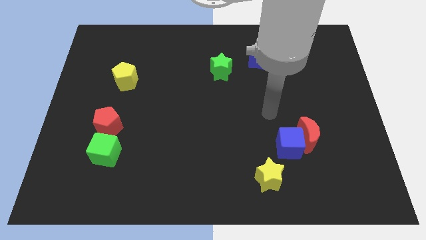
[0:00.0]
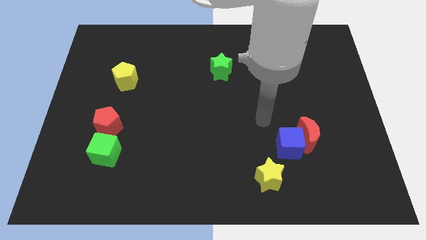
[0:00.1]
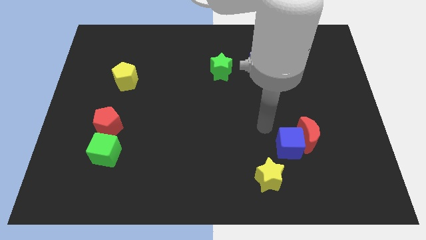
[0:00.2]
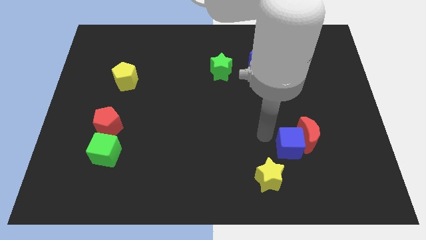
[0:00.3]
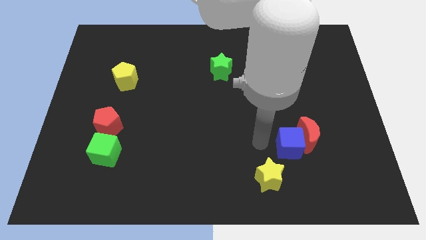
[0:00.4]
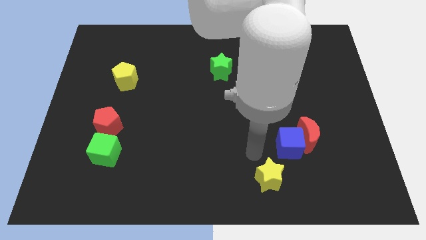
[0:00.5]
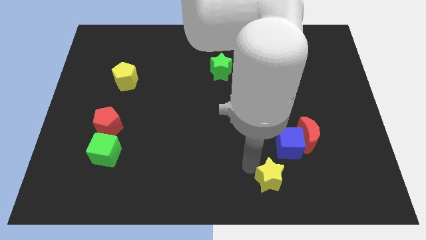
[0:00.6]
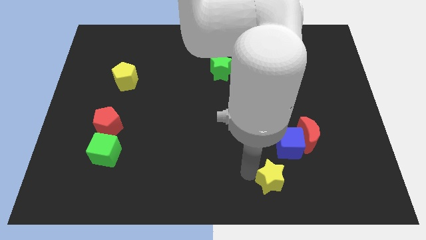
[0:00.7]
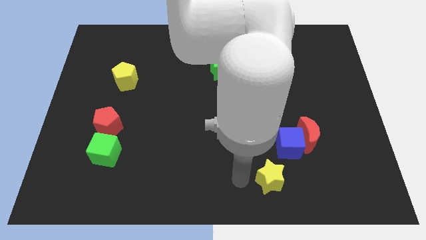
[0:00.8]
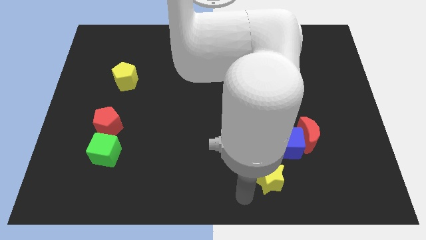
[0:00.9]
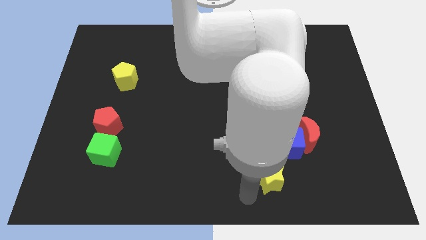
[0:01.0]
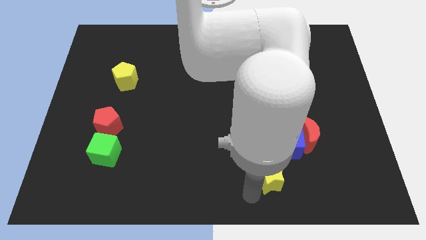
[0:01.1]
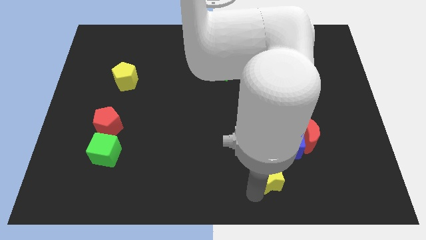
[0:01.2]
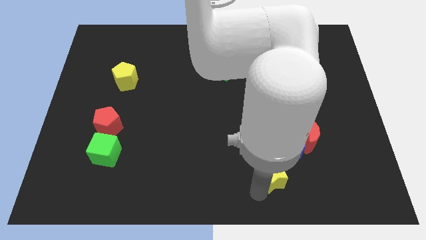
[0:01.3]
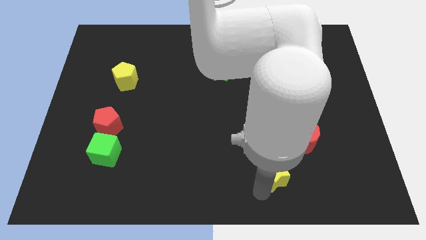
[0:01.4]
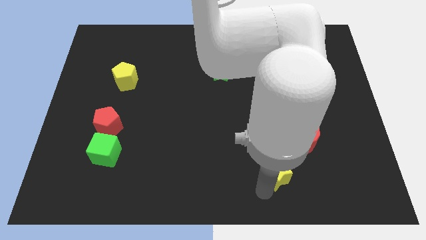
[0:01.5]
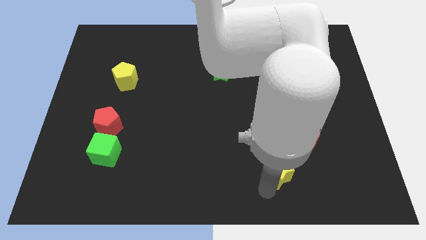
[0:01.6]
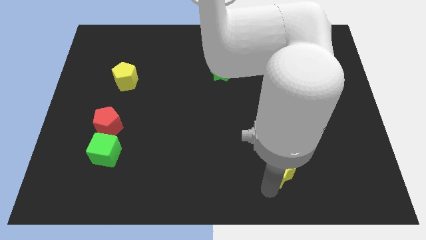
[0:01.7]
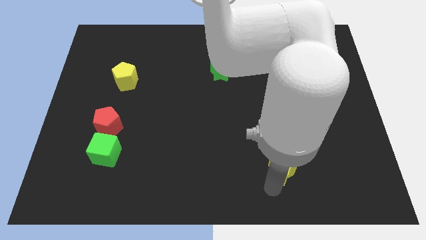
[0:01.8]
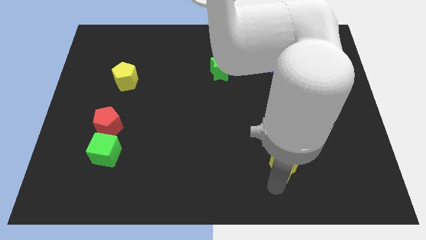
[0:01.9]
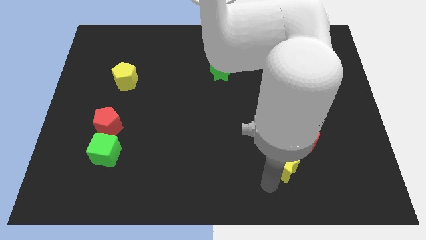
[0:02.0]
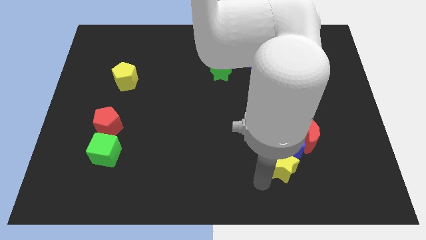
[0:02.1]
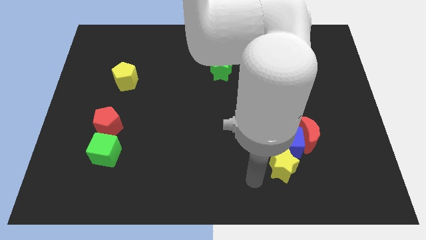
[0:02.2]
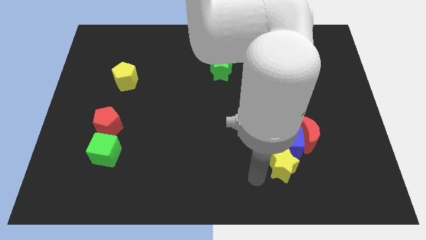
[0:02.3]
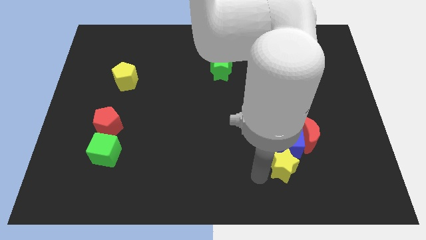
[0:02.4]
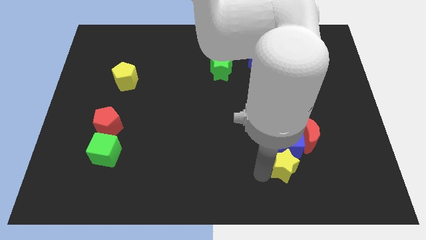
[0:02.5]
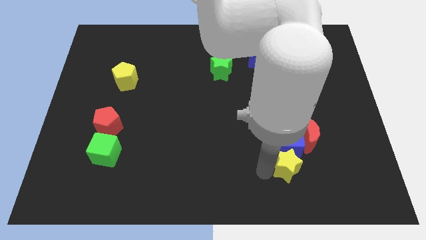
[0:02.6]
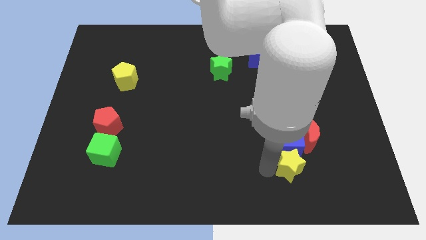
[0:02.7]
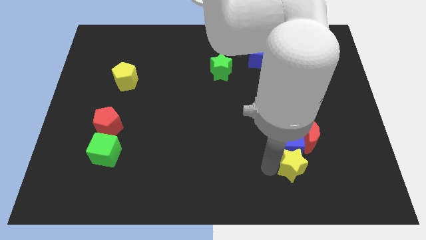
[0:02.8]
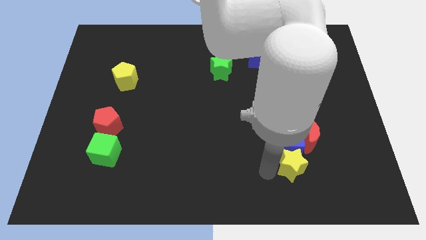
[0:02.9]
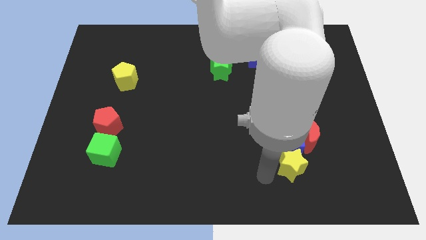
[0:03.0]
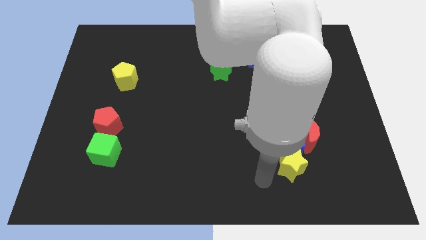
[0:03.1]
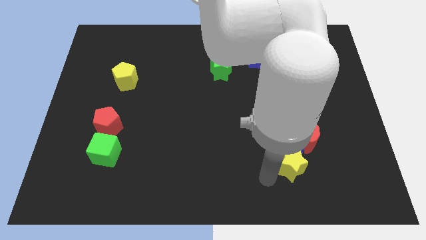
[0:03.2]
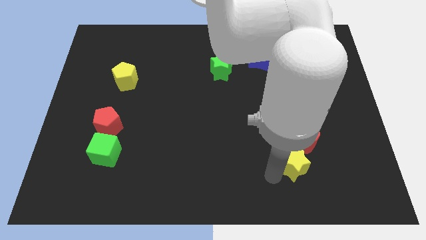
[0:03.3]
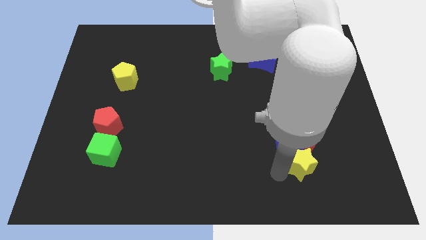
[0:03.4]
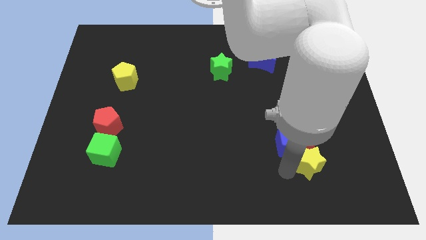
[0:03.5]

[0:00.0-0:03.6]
slightly push the yellow star diagonally upwards and to the right

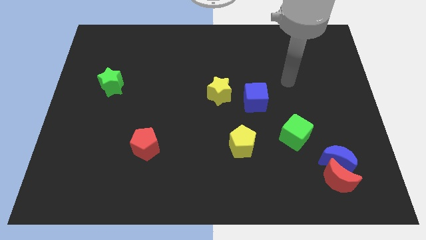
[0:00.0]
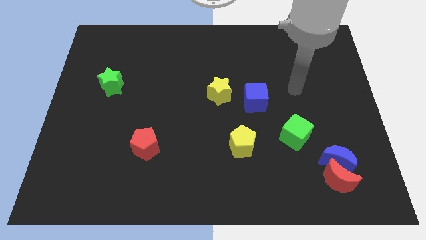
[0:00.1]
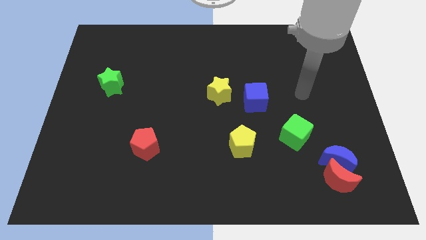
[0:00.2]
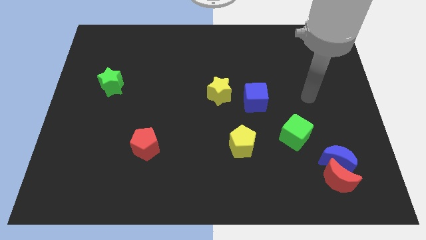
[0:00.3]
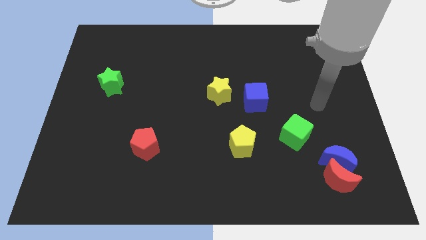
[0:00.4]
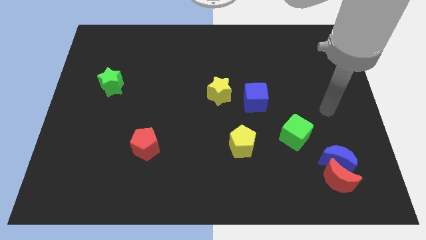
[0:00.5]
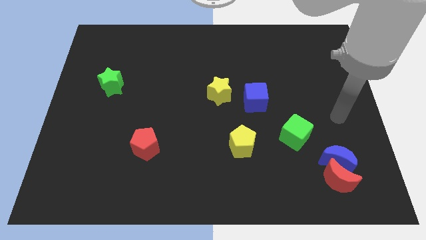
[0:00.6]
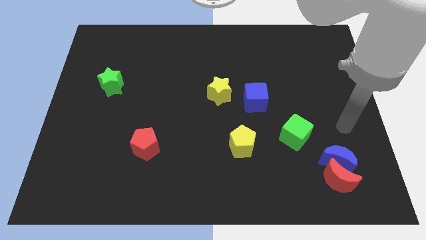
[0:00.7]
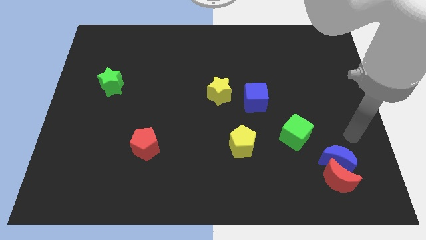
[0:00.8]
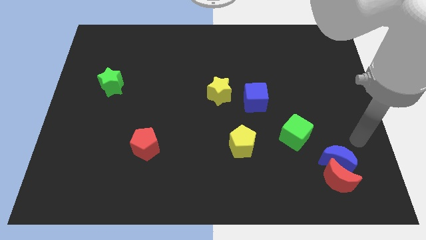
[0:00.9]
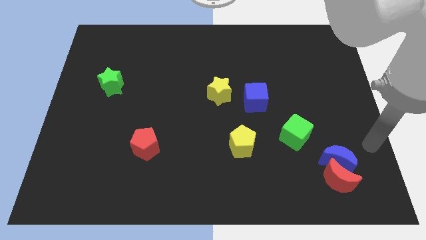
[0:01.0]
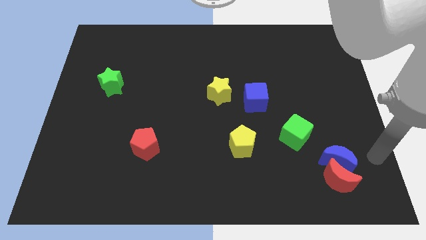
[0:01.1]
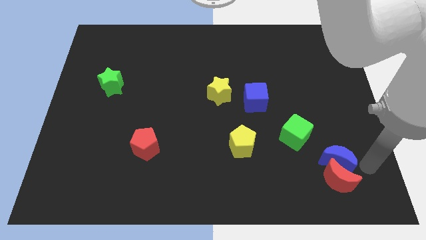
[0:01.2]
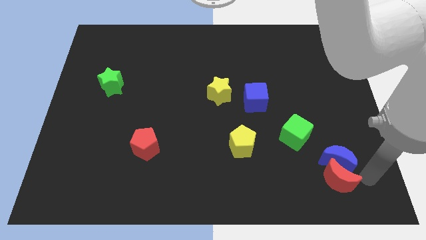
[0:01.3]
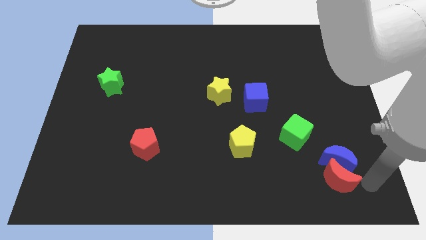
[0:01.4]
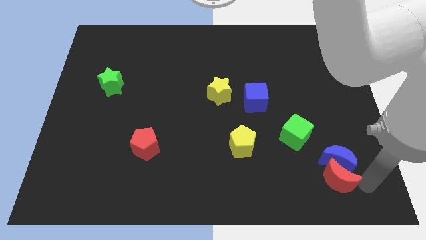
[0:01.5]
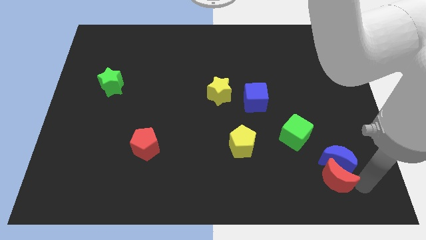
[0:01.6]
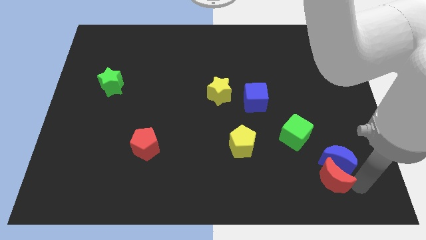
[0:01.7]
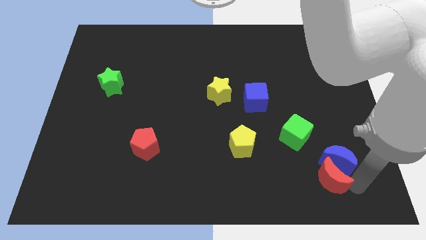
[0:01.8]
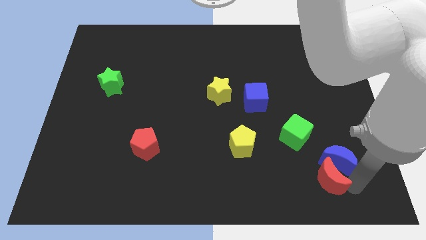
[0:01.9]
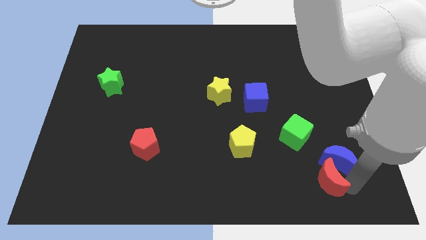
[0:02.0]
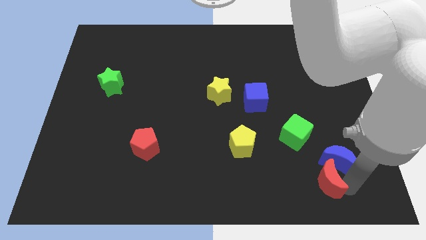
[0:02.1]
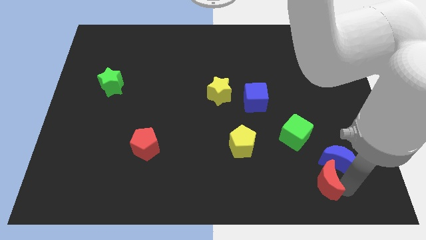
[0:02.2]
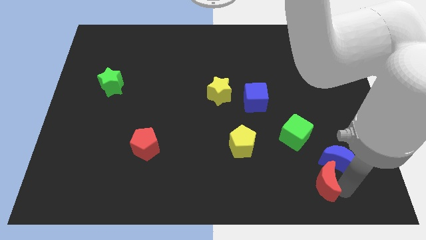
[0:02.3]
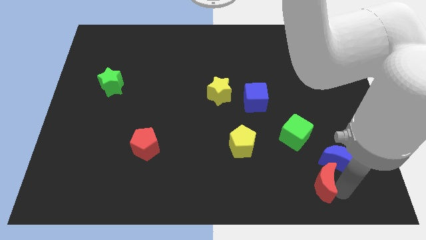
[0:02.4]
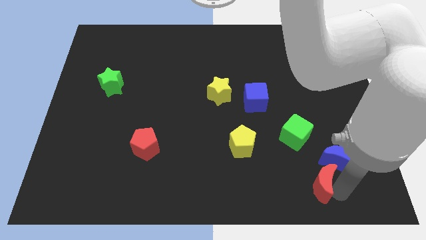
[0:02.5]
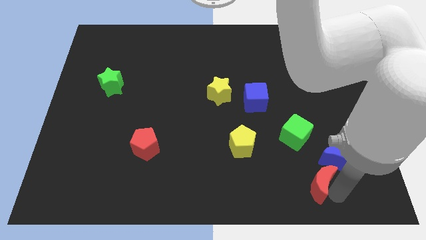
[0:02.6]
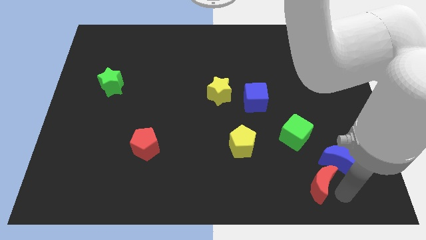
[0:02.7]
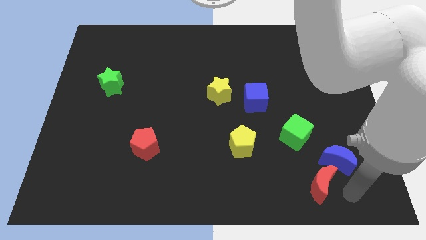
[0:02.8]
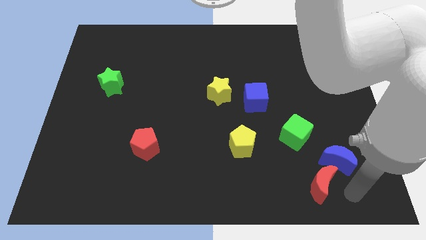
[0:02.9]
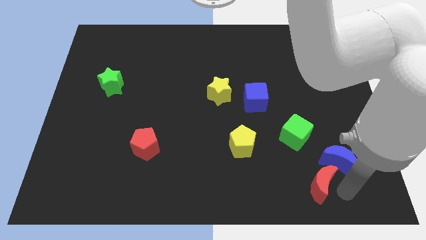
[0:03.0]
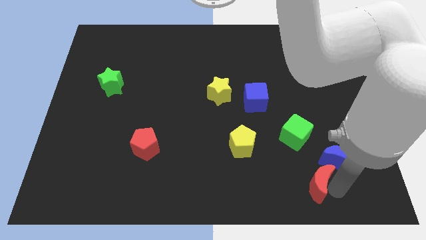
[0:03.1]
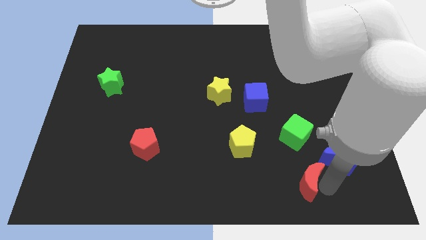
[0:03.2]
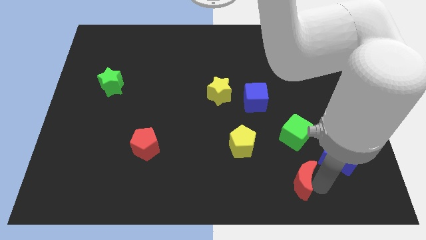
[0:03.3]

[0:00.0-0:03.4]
push the red moon left slightly

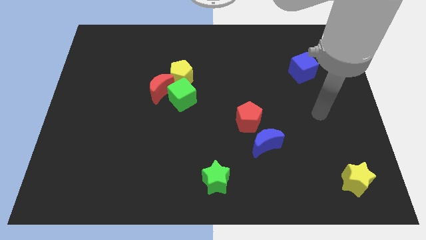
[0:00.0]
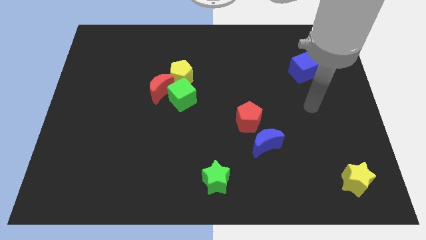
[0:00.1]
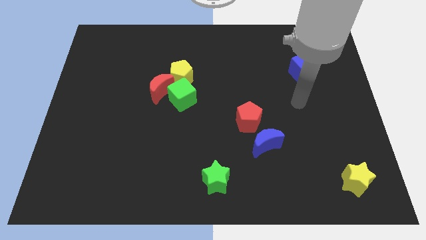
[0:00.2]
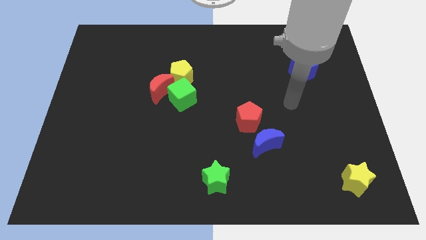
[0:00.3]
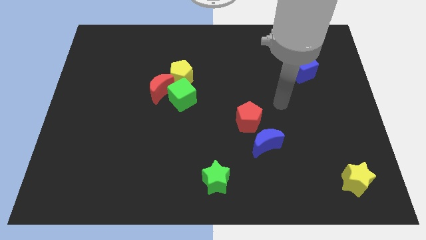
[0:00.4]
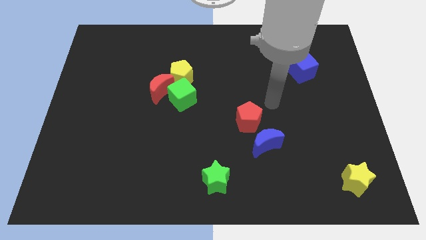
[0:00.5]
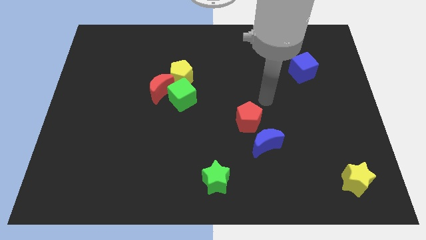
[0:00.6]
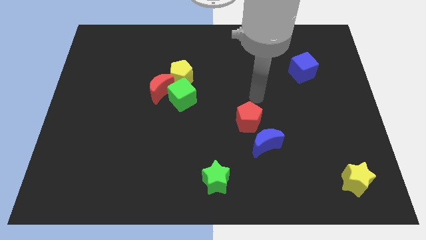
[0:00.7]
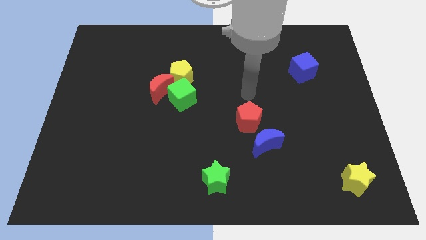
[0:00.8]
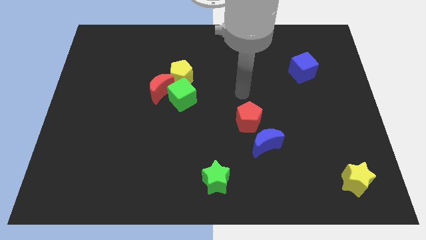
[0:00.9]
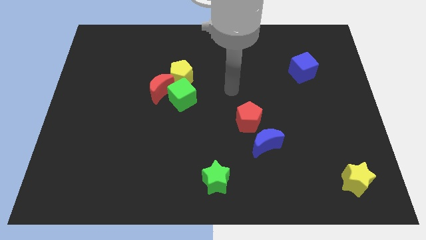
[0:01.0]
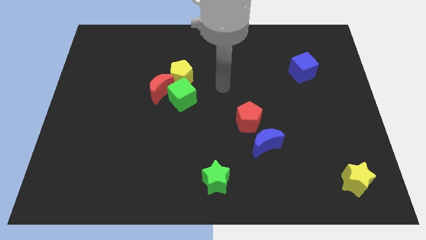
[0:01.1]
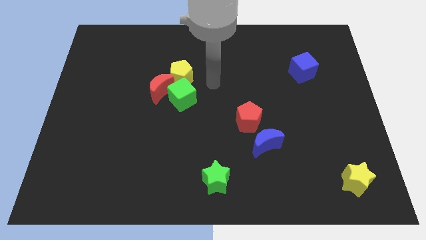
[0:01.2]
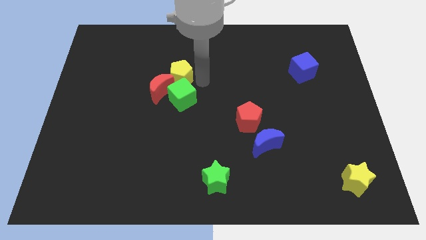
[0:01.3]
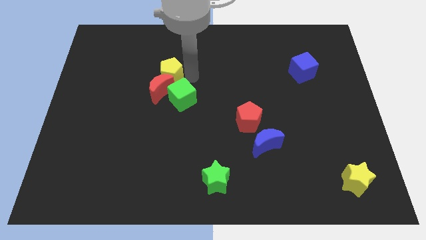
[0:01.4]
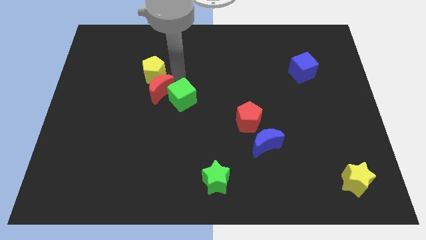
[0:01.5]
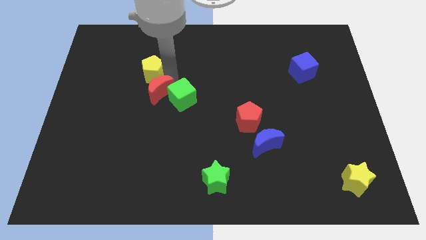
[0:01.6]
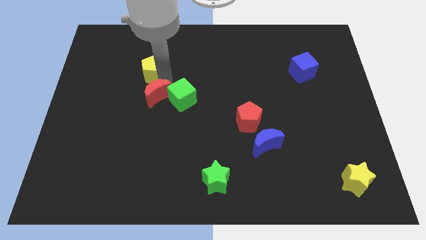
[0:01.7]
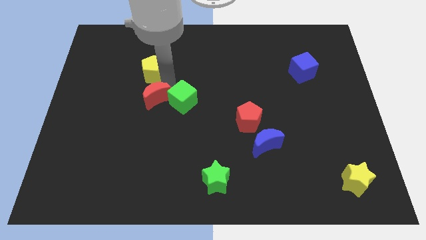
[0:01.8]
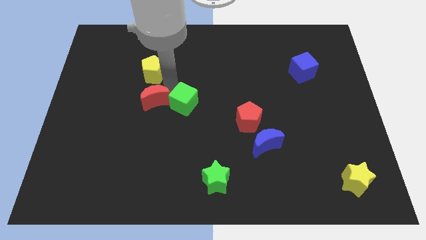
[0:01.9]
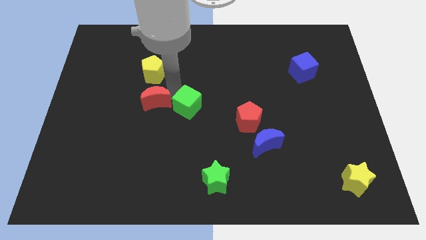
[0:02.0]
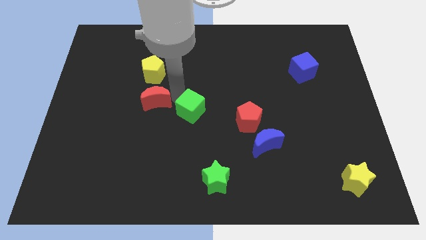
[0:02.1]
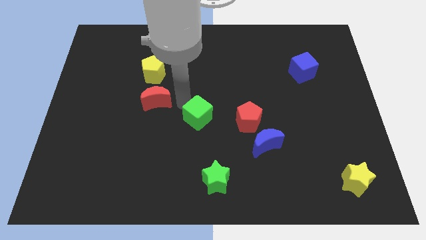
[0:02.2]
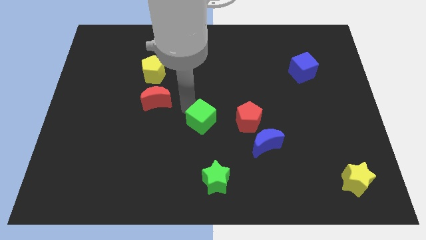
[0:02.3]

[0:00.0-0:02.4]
slide the green cube a little bit down and then right
